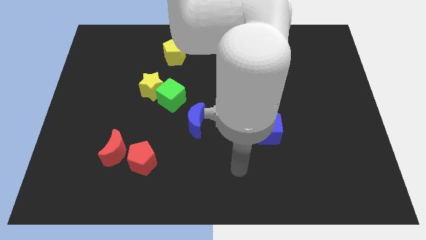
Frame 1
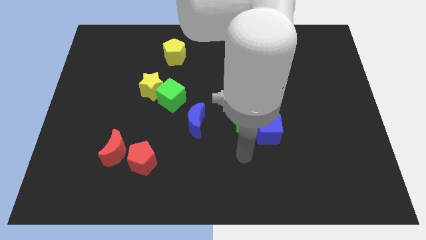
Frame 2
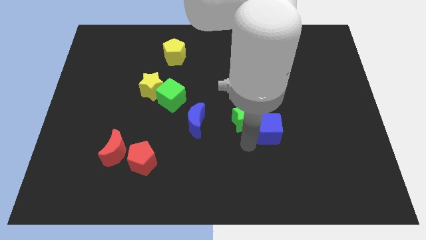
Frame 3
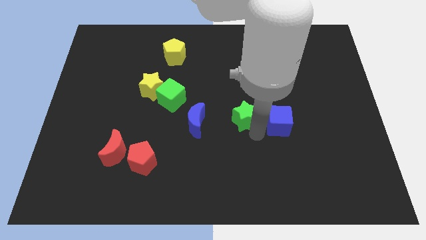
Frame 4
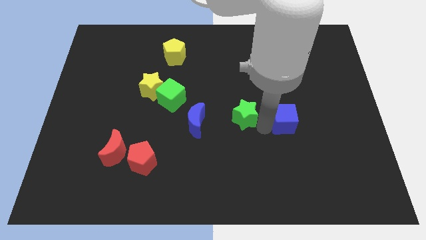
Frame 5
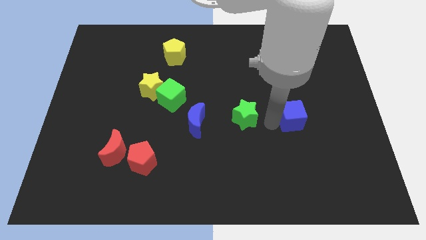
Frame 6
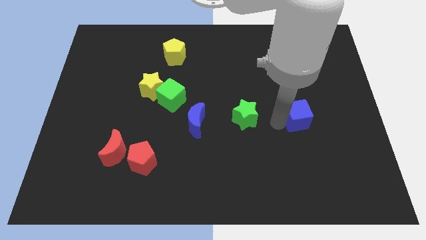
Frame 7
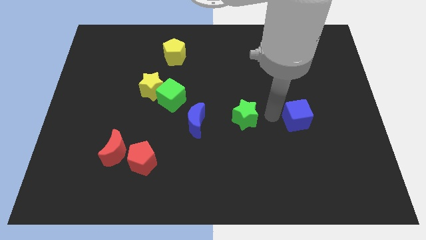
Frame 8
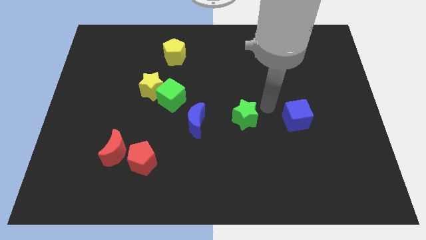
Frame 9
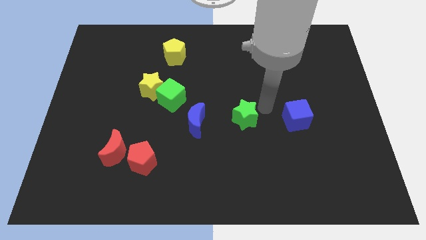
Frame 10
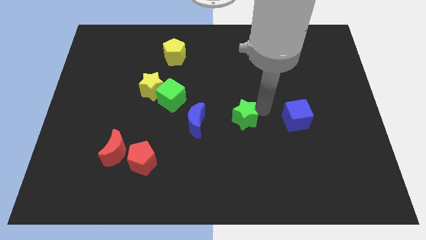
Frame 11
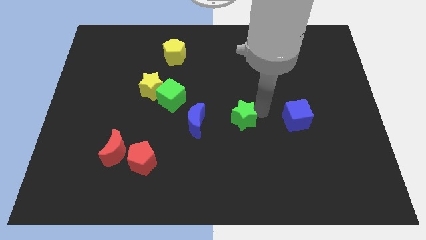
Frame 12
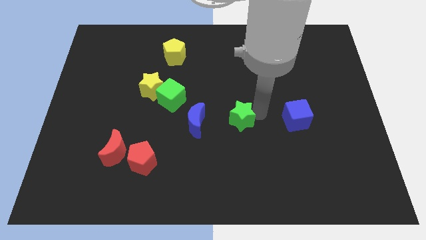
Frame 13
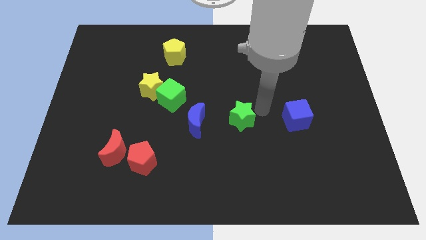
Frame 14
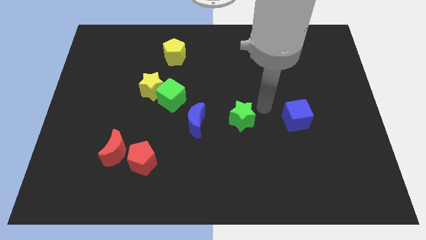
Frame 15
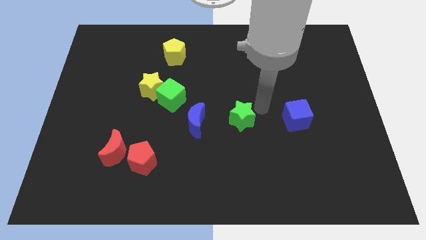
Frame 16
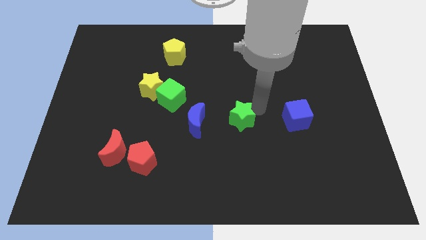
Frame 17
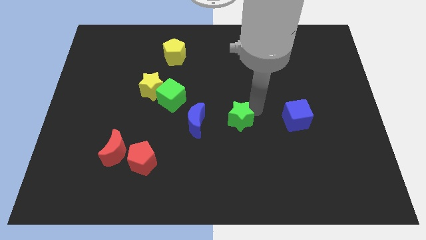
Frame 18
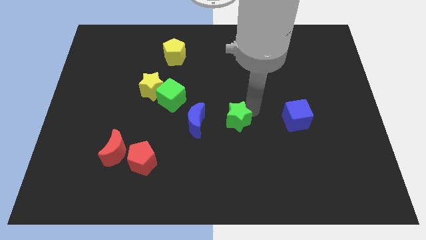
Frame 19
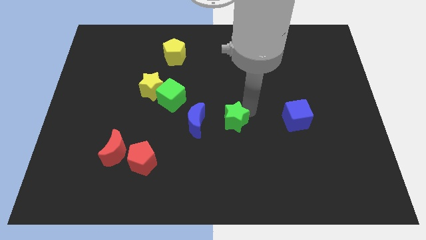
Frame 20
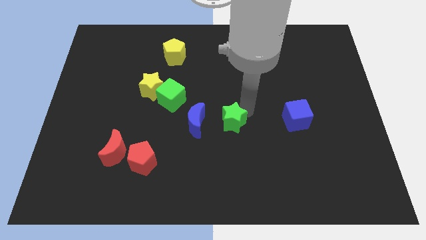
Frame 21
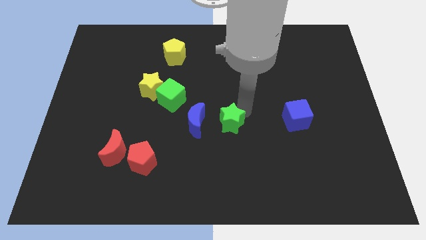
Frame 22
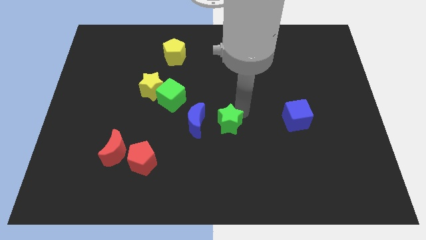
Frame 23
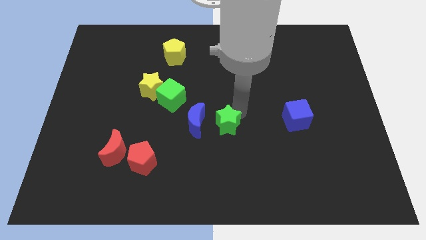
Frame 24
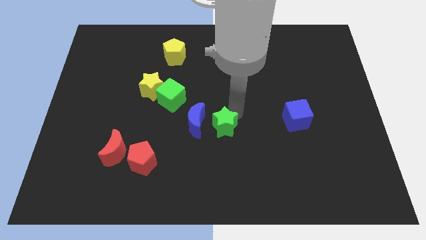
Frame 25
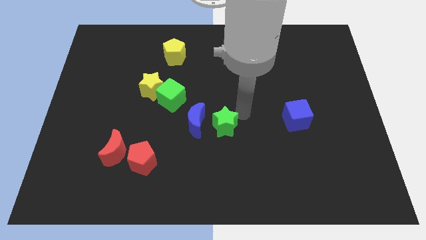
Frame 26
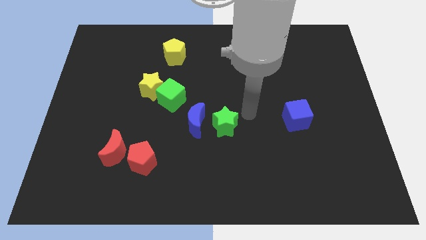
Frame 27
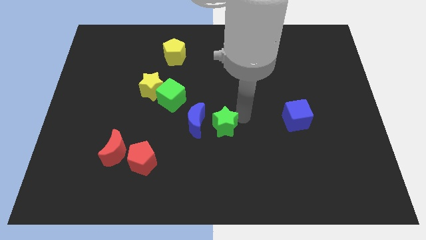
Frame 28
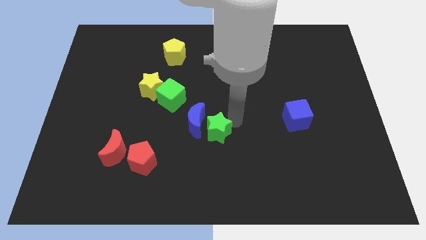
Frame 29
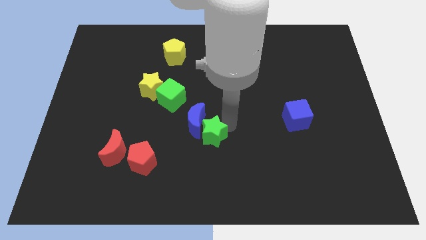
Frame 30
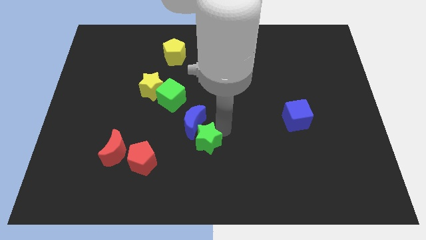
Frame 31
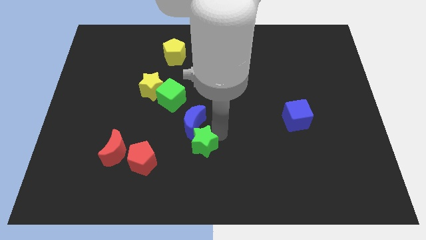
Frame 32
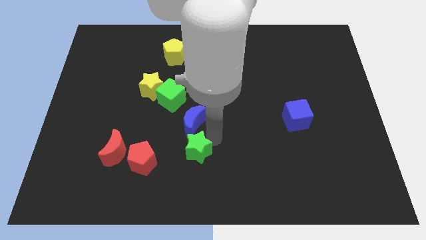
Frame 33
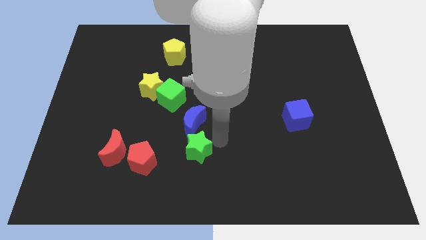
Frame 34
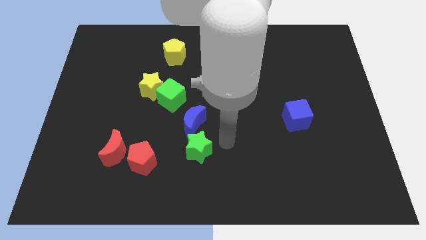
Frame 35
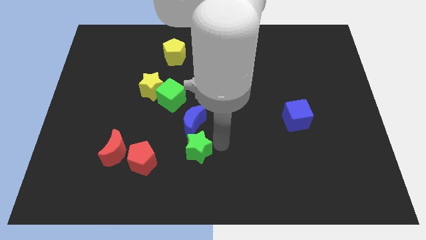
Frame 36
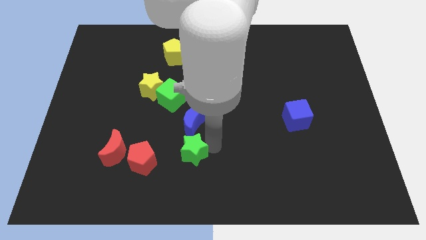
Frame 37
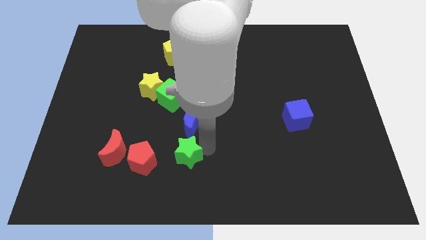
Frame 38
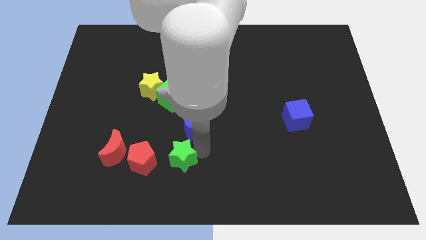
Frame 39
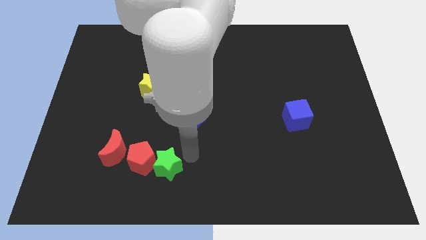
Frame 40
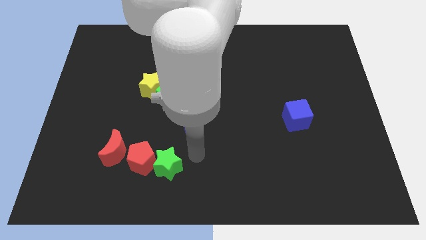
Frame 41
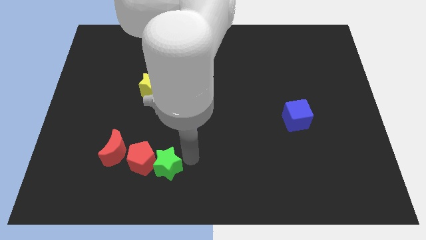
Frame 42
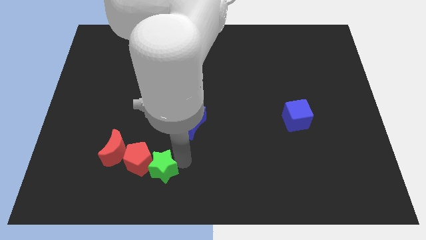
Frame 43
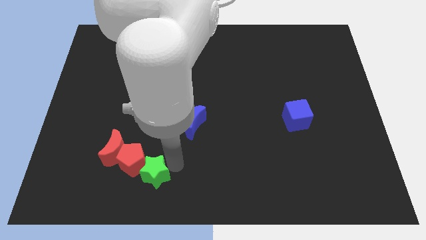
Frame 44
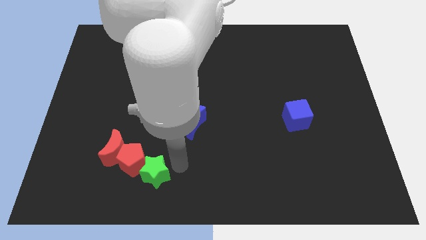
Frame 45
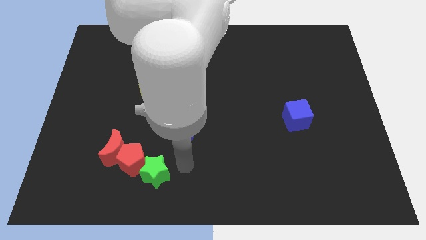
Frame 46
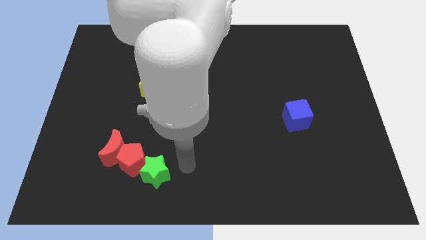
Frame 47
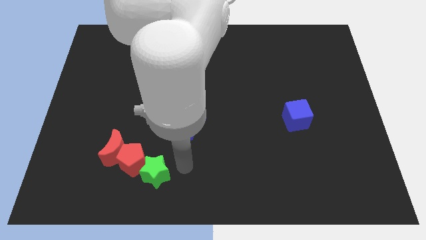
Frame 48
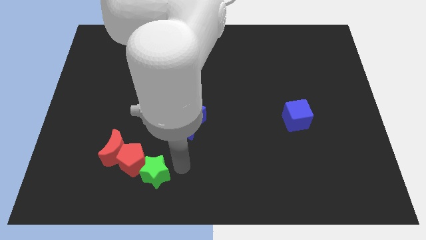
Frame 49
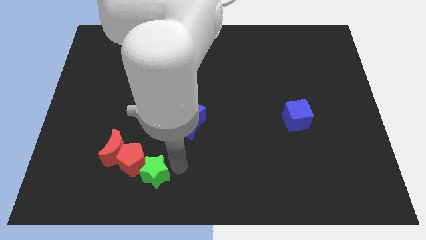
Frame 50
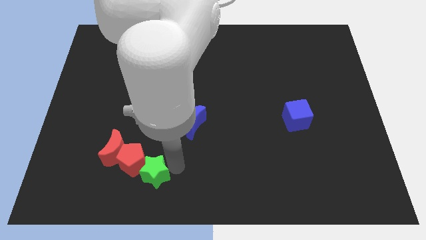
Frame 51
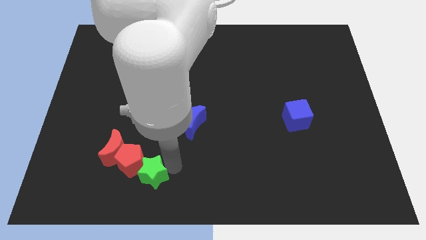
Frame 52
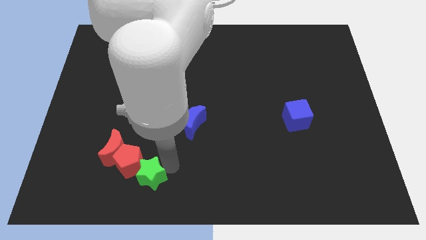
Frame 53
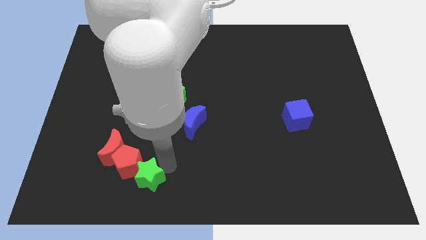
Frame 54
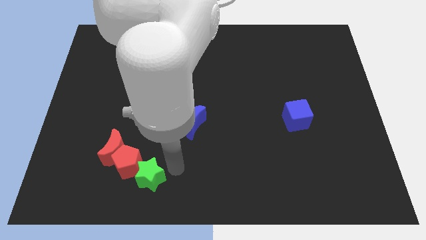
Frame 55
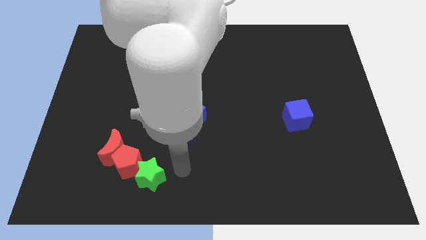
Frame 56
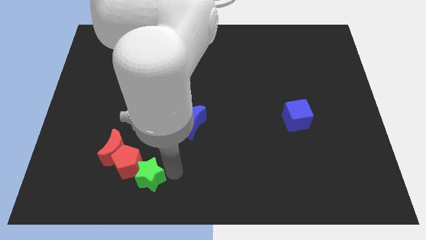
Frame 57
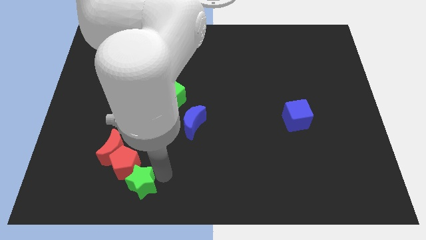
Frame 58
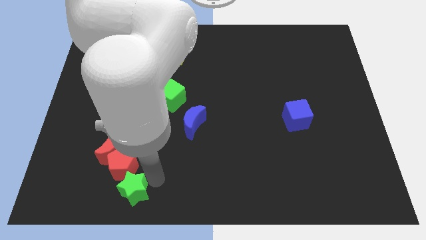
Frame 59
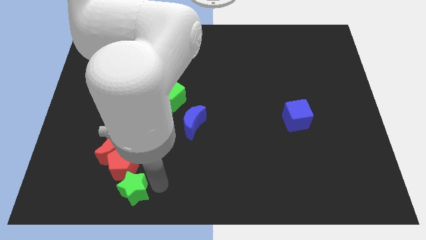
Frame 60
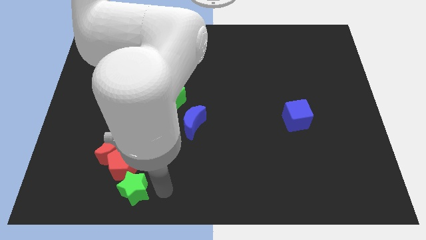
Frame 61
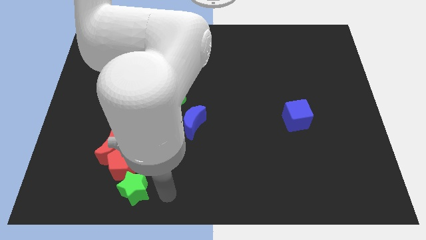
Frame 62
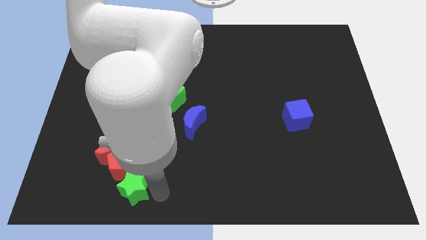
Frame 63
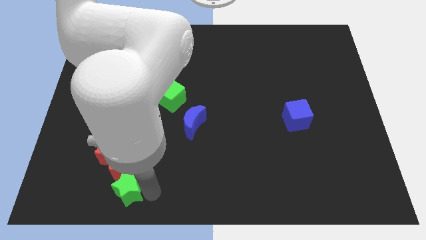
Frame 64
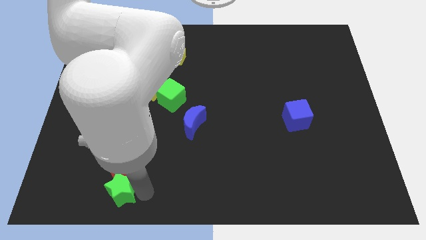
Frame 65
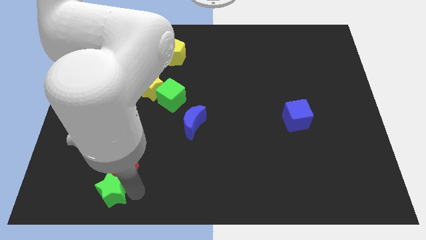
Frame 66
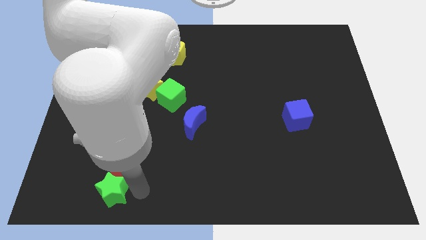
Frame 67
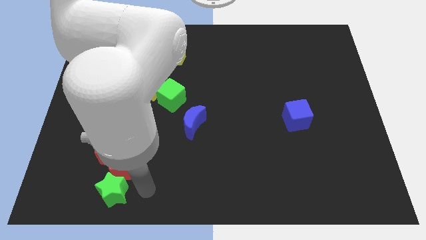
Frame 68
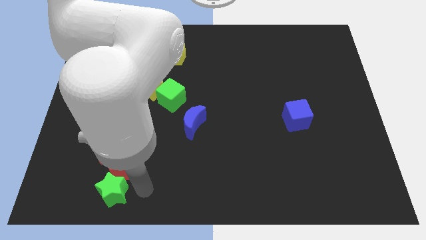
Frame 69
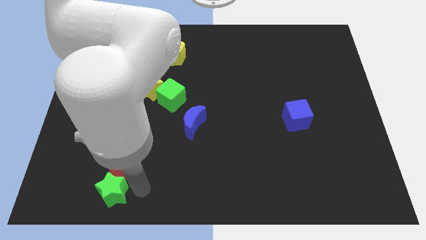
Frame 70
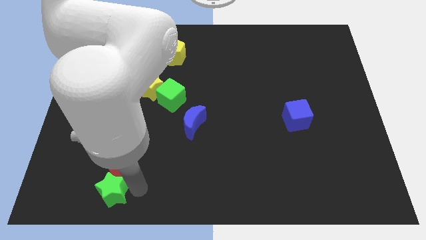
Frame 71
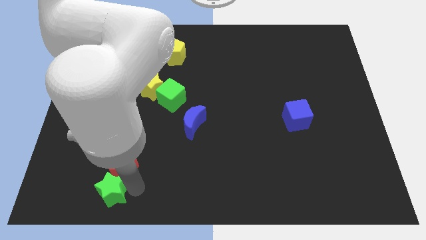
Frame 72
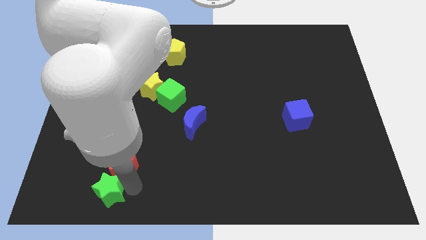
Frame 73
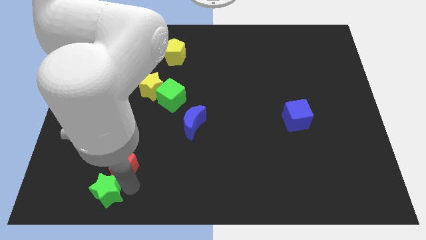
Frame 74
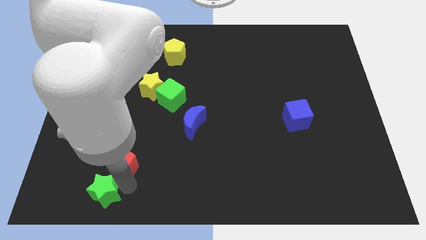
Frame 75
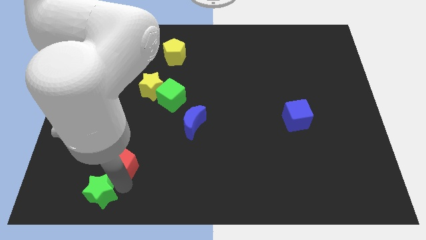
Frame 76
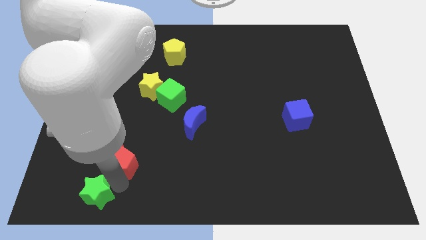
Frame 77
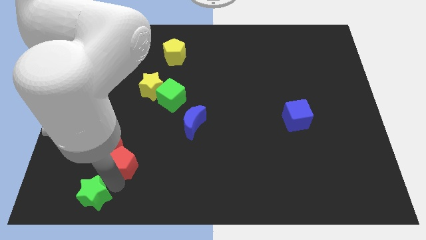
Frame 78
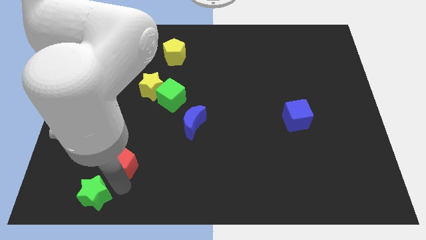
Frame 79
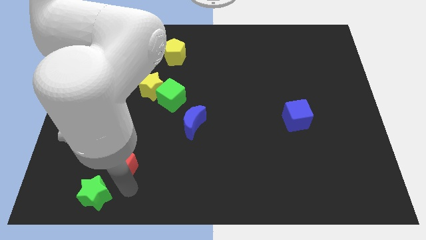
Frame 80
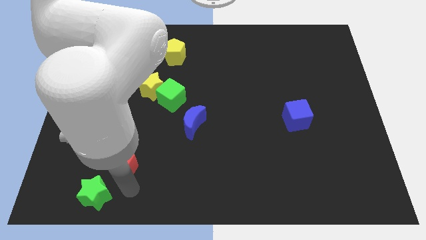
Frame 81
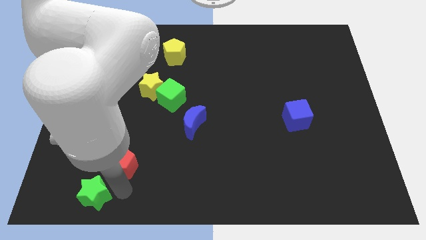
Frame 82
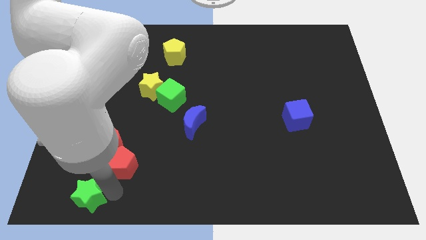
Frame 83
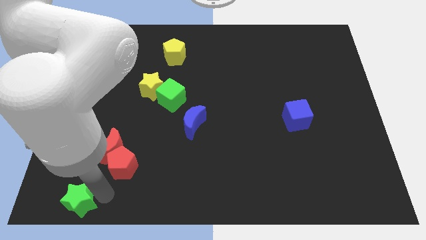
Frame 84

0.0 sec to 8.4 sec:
push the green star to the bottom left corner
